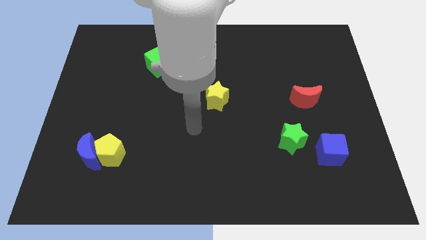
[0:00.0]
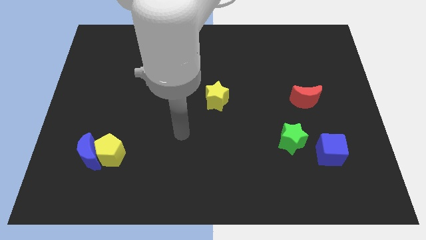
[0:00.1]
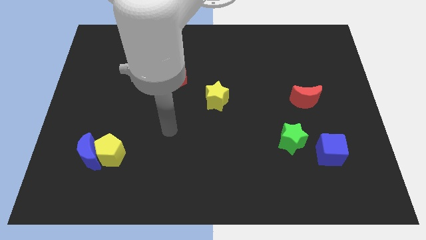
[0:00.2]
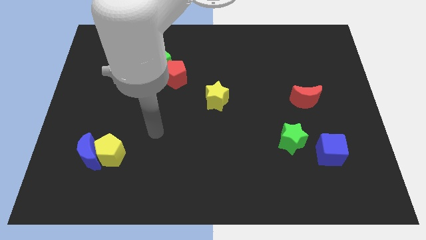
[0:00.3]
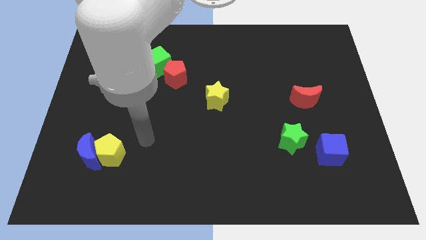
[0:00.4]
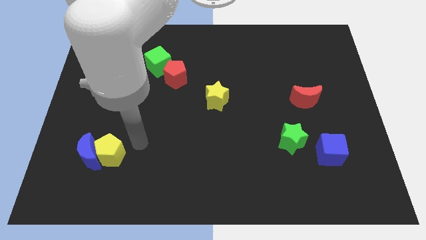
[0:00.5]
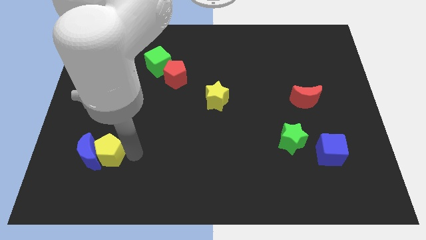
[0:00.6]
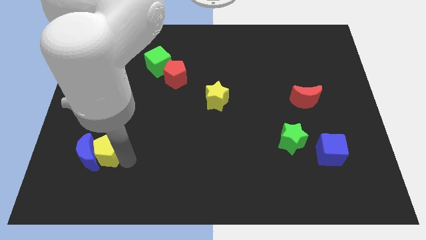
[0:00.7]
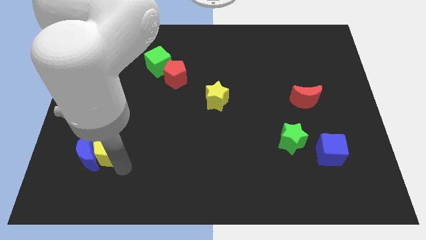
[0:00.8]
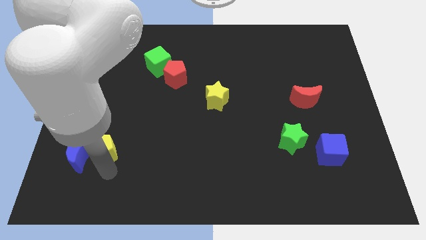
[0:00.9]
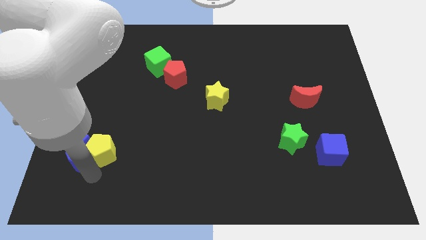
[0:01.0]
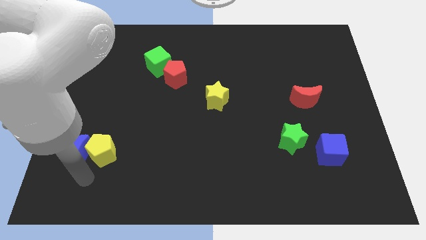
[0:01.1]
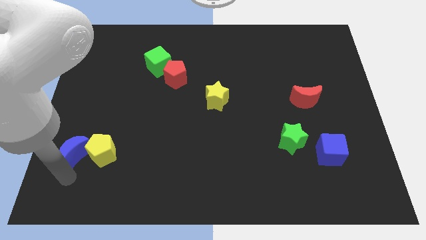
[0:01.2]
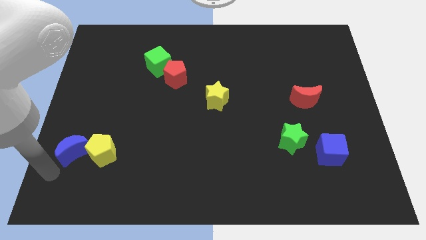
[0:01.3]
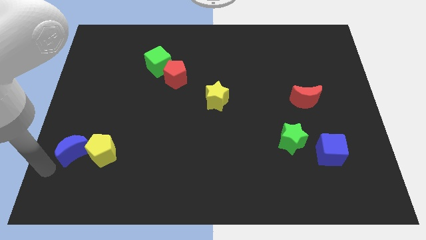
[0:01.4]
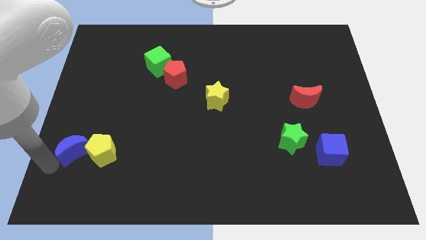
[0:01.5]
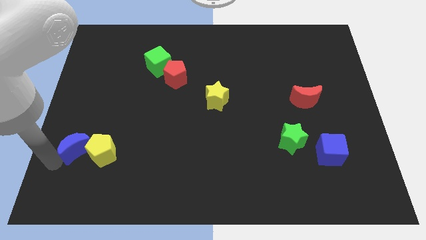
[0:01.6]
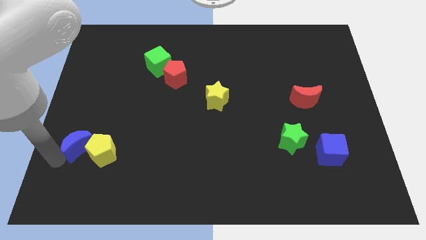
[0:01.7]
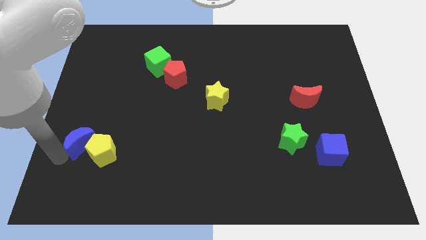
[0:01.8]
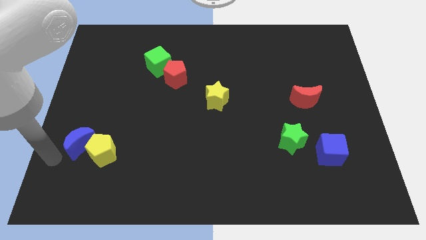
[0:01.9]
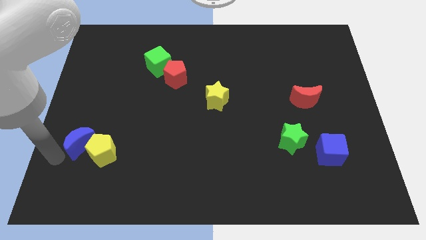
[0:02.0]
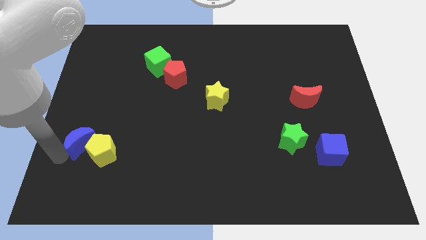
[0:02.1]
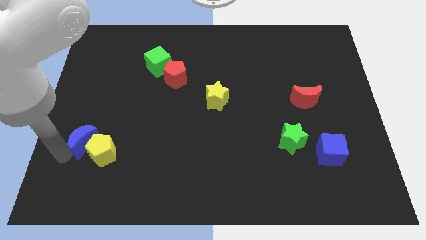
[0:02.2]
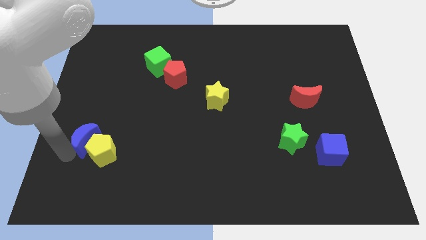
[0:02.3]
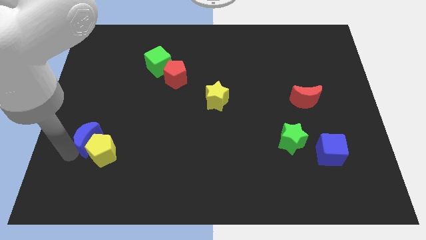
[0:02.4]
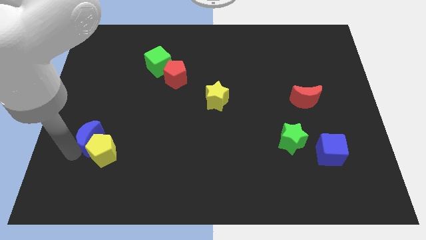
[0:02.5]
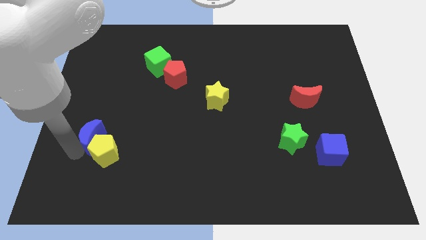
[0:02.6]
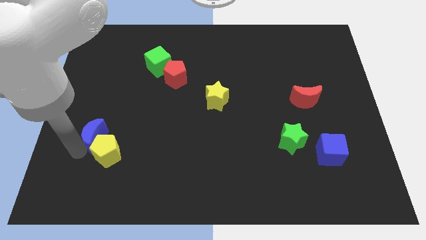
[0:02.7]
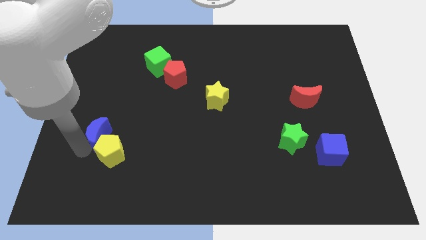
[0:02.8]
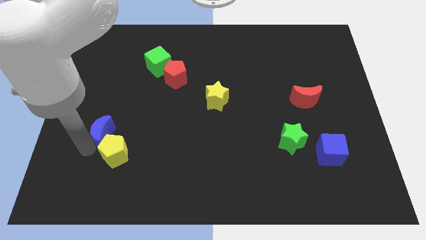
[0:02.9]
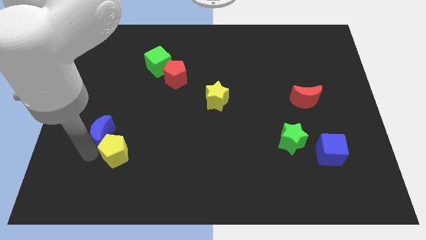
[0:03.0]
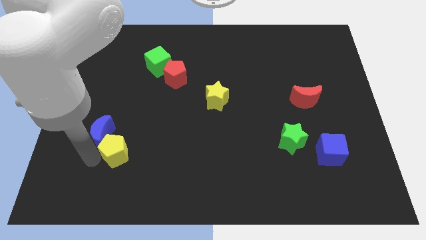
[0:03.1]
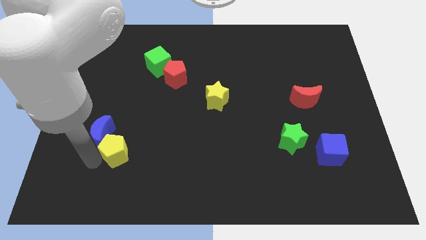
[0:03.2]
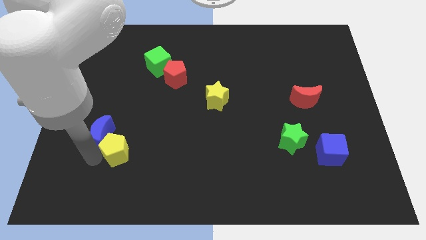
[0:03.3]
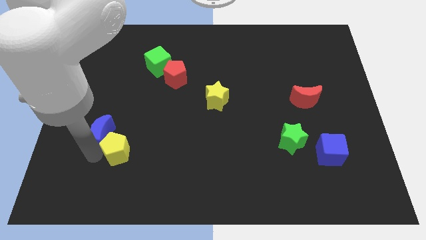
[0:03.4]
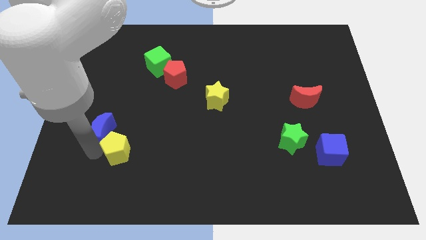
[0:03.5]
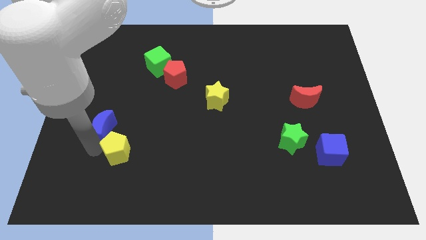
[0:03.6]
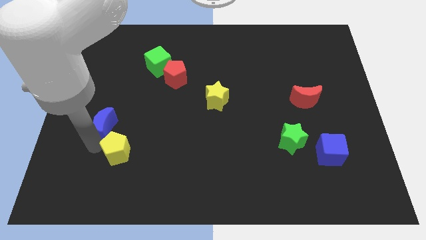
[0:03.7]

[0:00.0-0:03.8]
slightly slide the blue moon up

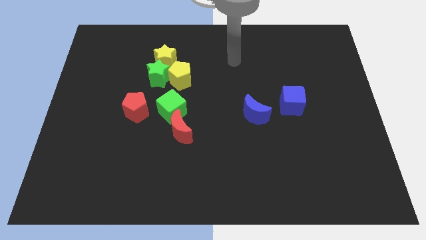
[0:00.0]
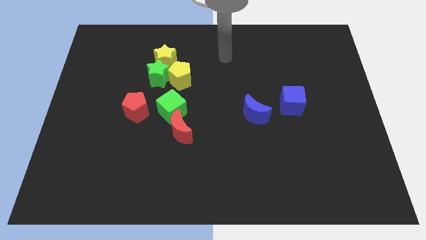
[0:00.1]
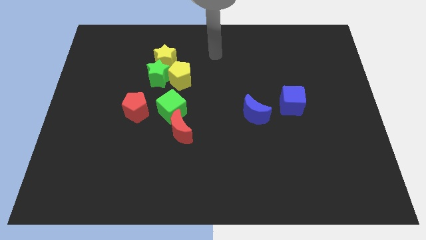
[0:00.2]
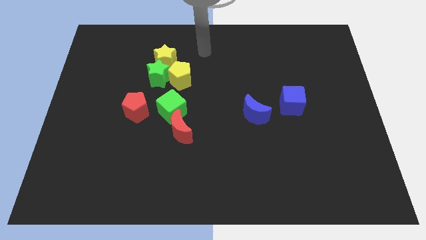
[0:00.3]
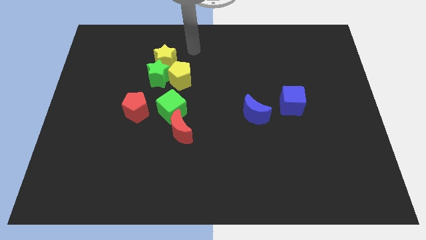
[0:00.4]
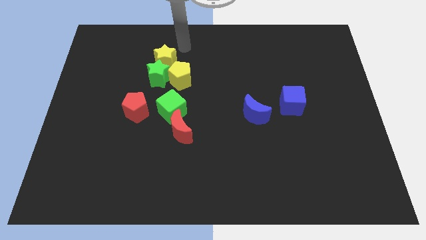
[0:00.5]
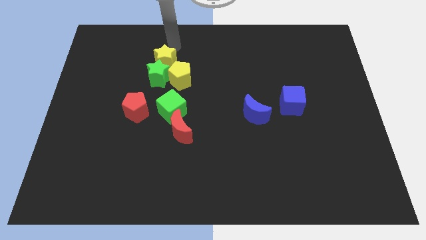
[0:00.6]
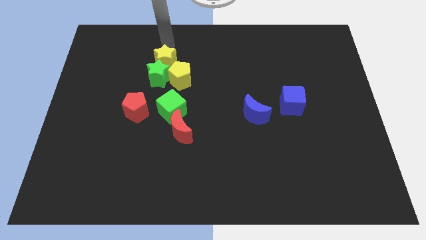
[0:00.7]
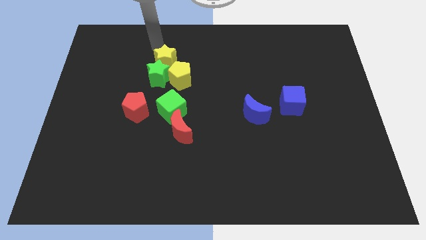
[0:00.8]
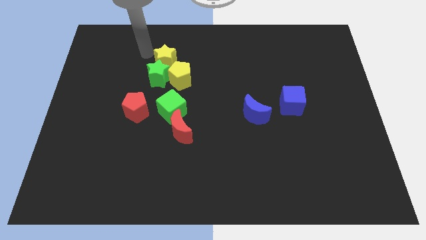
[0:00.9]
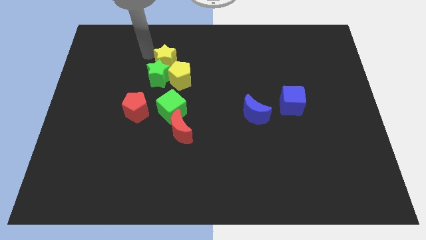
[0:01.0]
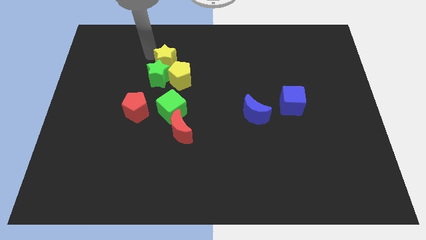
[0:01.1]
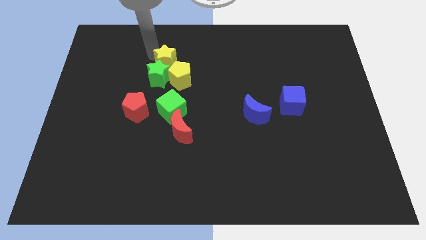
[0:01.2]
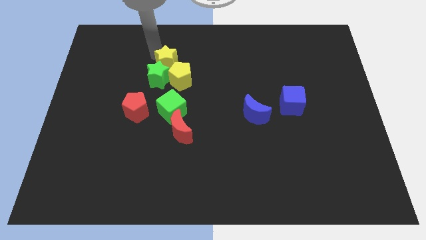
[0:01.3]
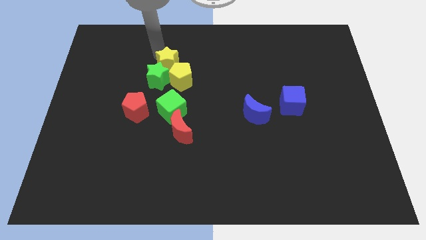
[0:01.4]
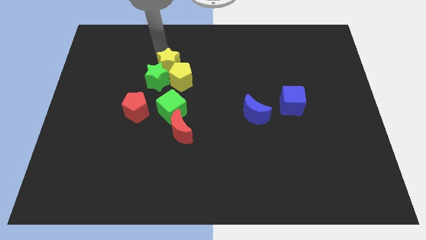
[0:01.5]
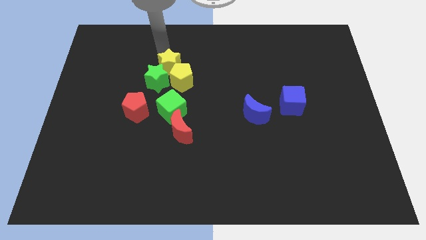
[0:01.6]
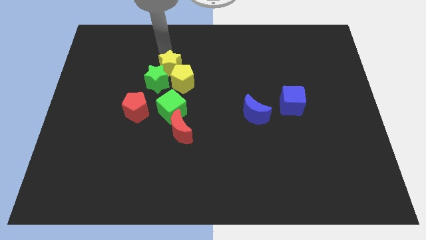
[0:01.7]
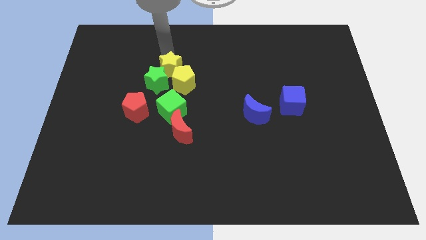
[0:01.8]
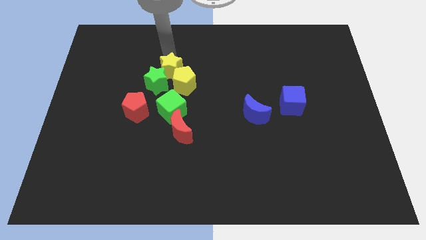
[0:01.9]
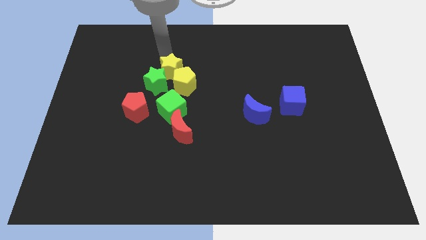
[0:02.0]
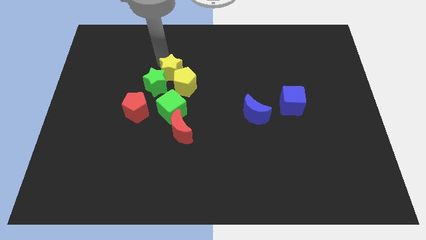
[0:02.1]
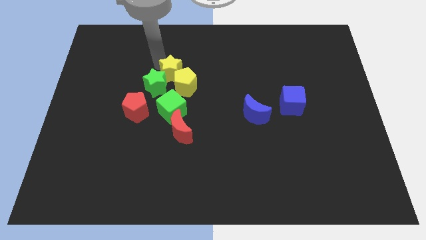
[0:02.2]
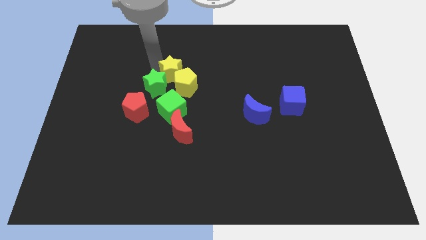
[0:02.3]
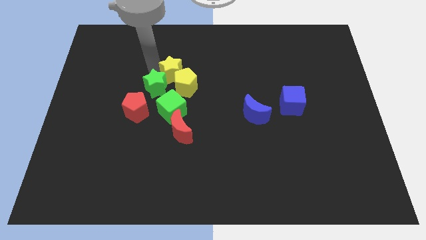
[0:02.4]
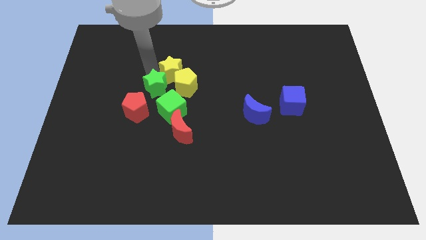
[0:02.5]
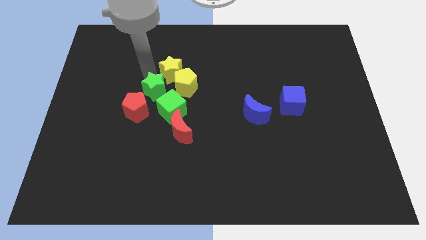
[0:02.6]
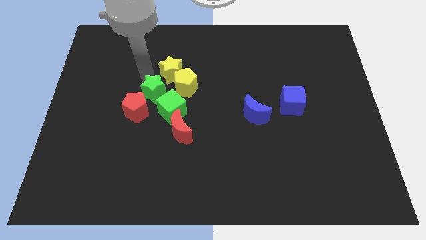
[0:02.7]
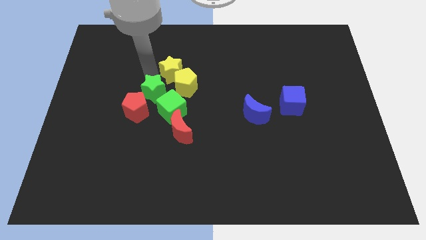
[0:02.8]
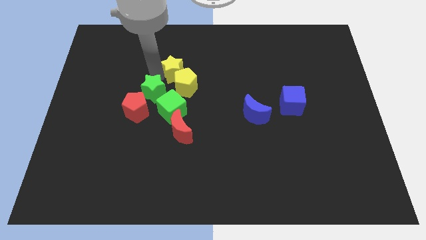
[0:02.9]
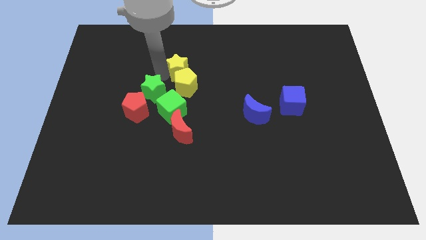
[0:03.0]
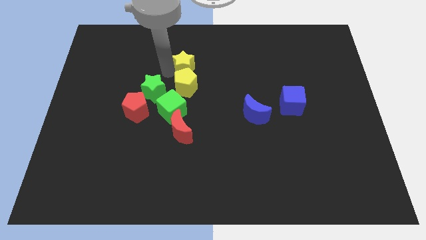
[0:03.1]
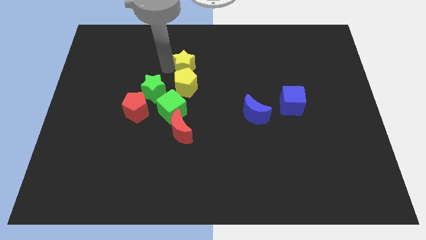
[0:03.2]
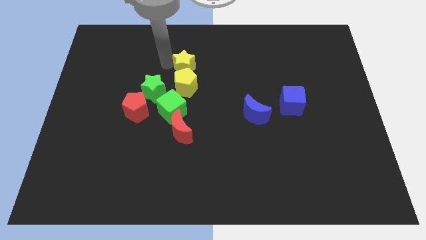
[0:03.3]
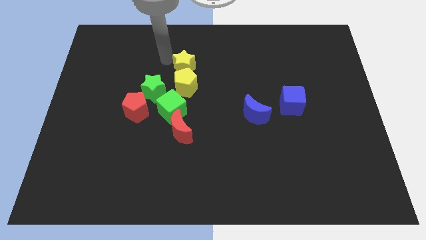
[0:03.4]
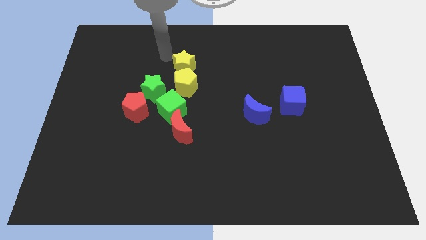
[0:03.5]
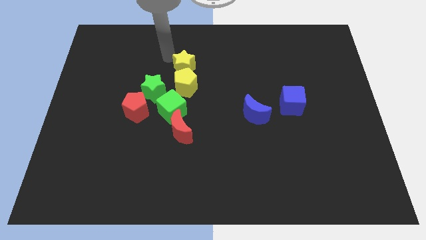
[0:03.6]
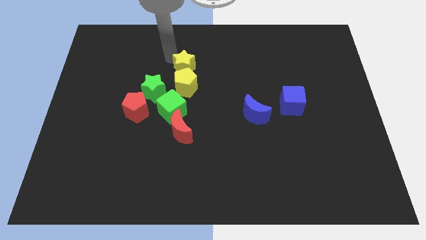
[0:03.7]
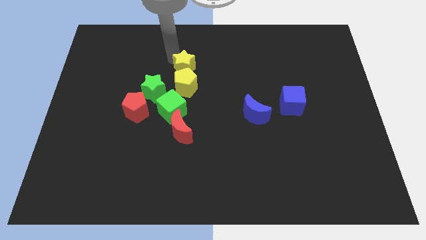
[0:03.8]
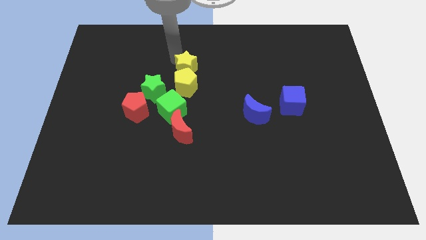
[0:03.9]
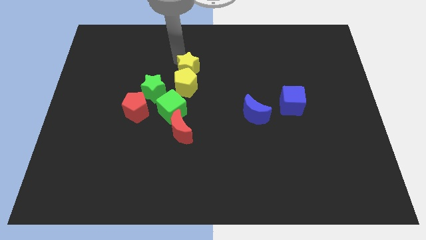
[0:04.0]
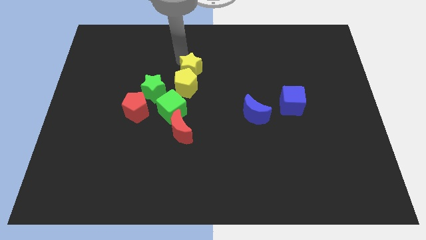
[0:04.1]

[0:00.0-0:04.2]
push the yellow star slightly down and to the right diagonally
